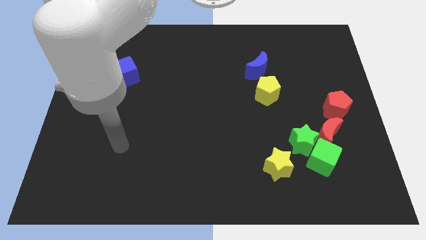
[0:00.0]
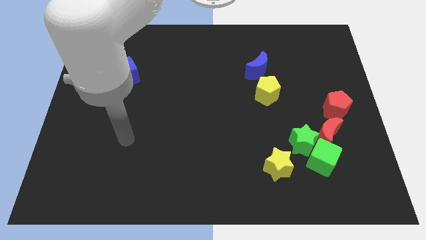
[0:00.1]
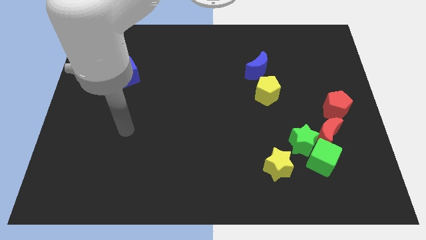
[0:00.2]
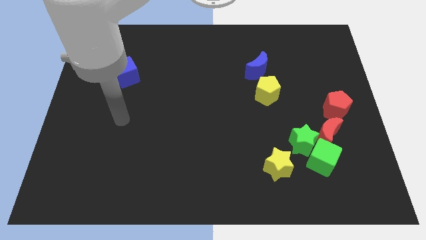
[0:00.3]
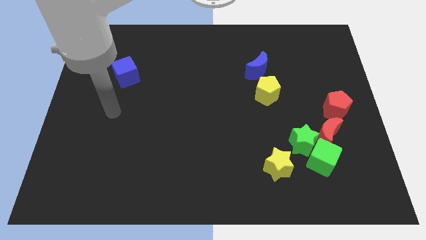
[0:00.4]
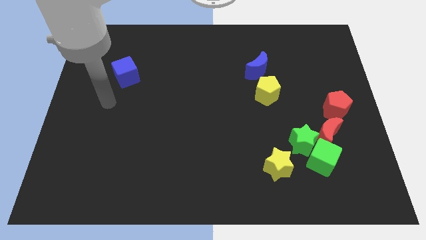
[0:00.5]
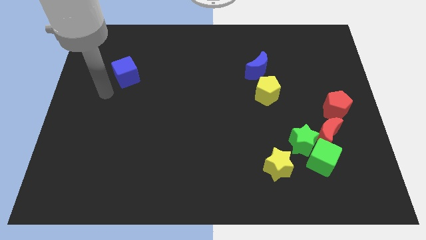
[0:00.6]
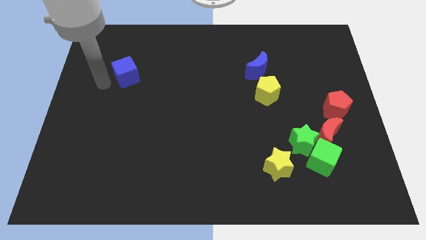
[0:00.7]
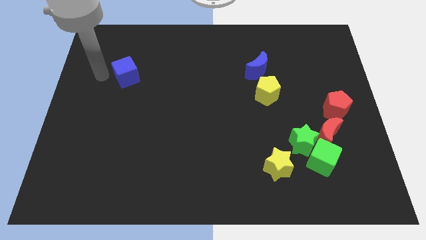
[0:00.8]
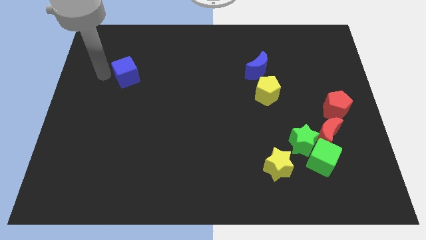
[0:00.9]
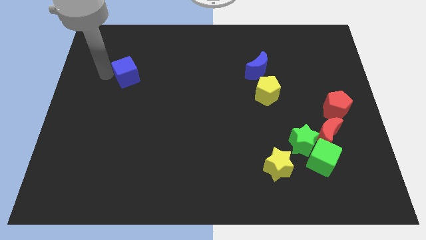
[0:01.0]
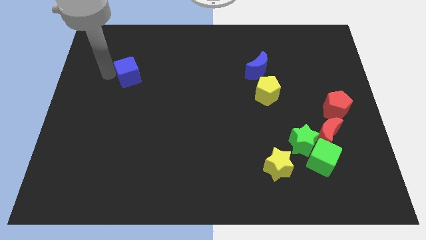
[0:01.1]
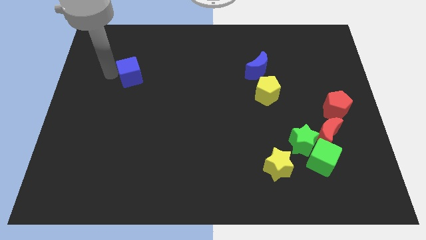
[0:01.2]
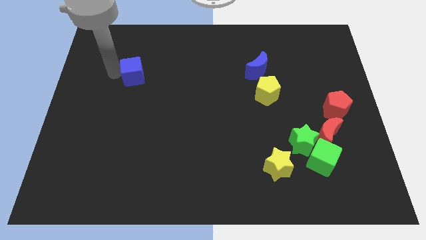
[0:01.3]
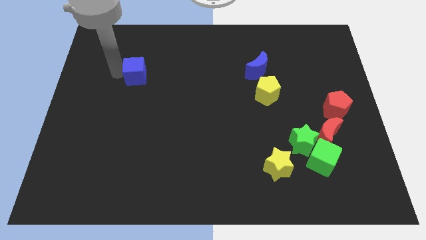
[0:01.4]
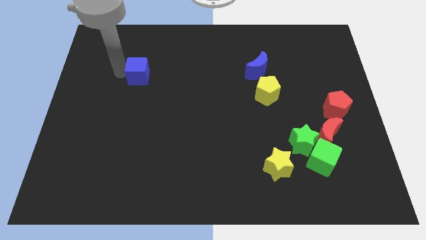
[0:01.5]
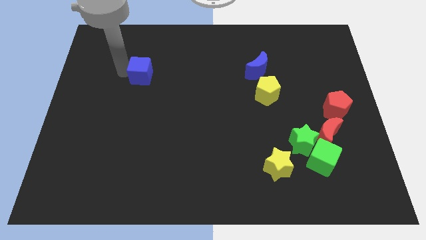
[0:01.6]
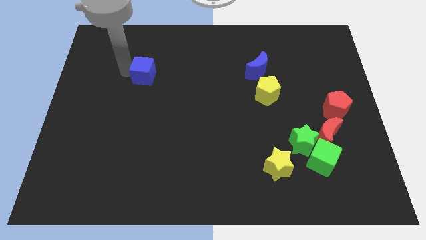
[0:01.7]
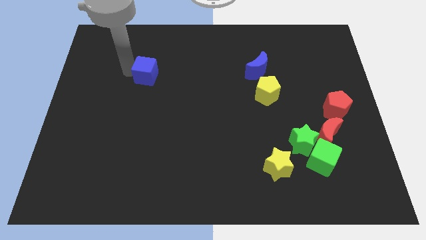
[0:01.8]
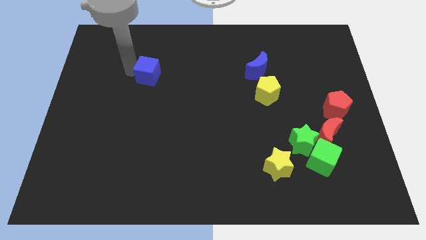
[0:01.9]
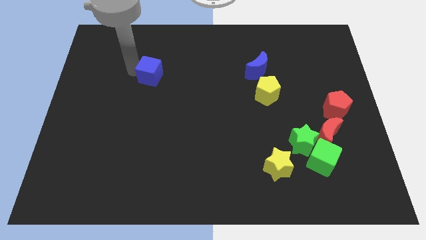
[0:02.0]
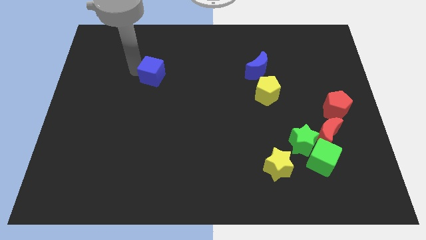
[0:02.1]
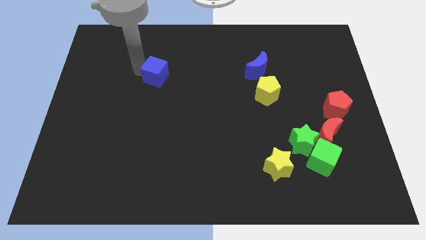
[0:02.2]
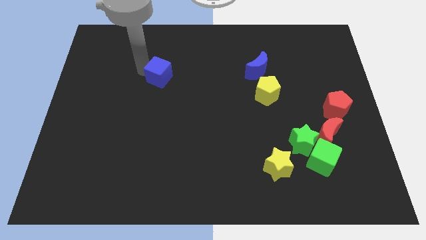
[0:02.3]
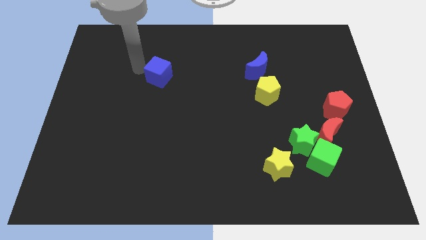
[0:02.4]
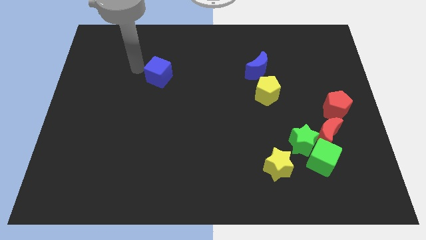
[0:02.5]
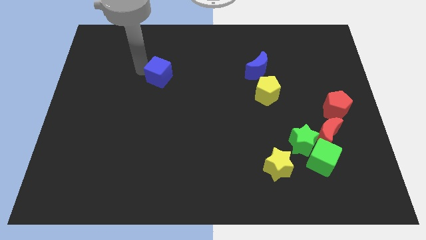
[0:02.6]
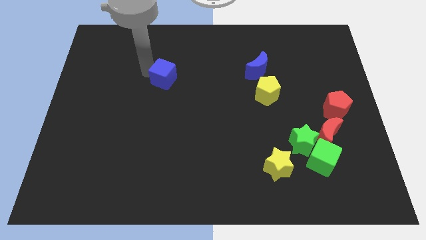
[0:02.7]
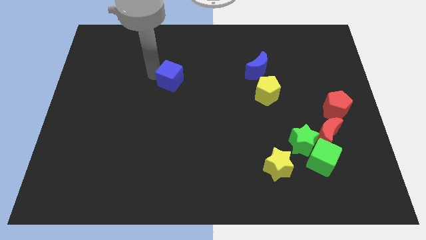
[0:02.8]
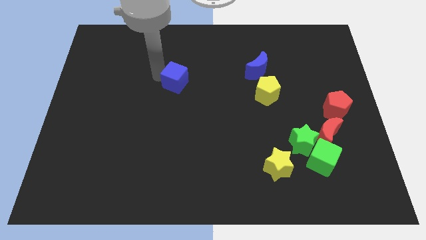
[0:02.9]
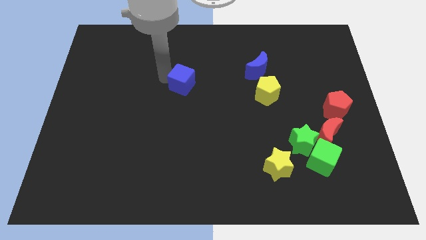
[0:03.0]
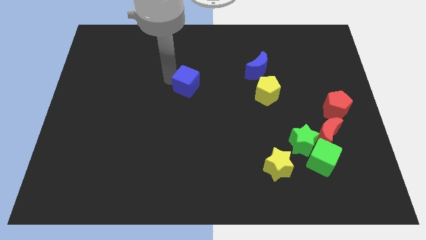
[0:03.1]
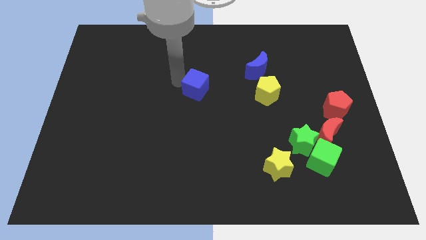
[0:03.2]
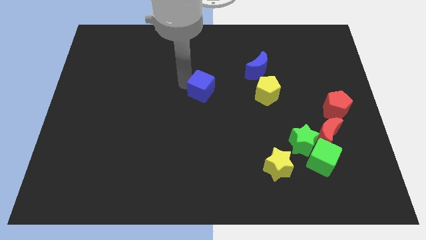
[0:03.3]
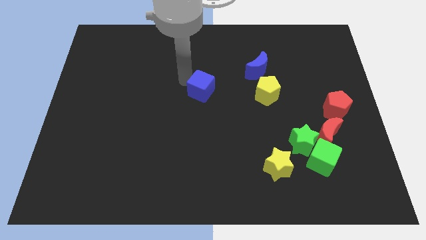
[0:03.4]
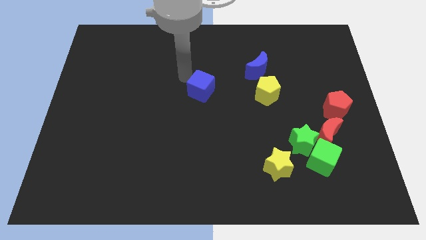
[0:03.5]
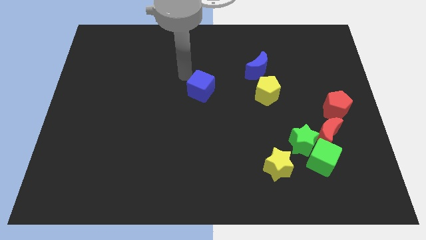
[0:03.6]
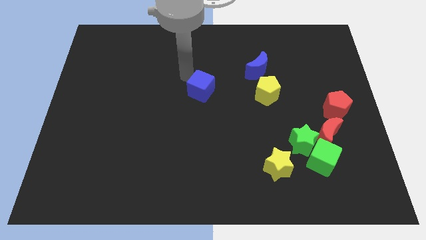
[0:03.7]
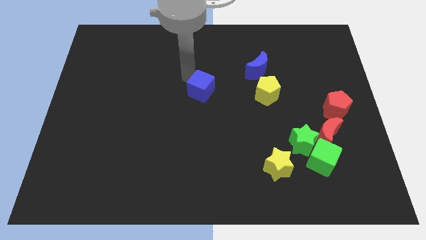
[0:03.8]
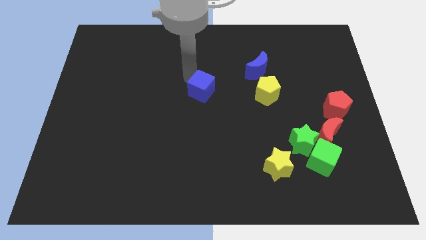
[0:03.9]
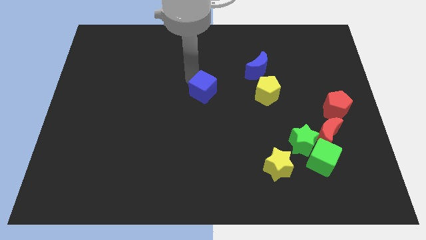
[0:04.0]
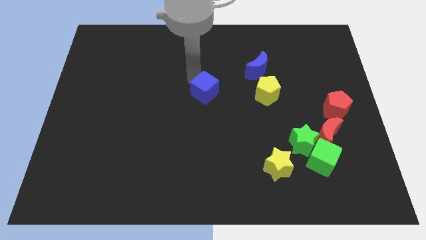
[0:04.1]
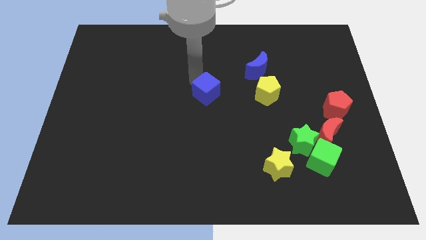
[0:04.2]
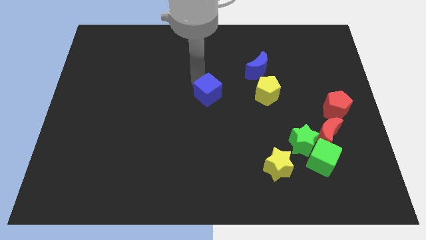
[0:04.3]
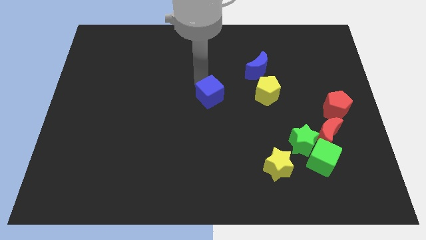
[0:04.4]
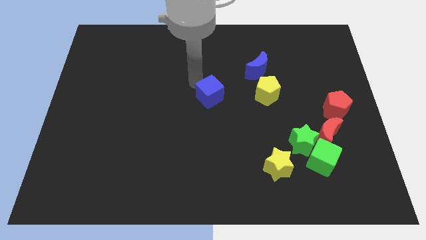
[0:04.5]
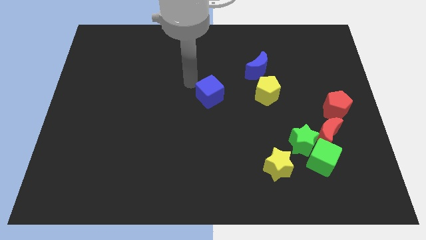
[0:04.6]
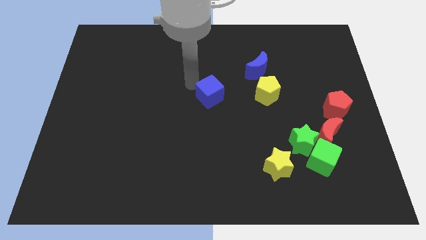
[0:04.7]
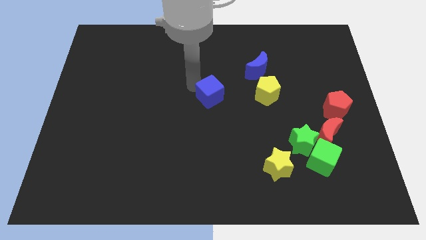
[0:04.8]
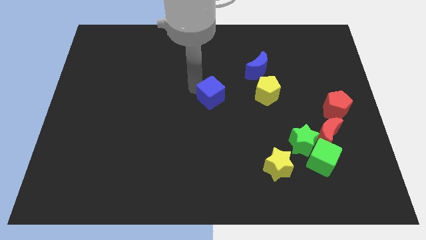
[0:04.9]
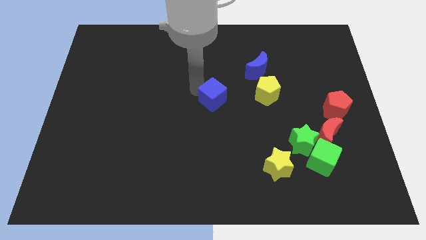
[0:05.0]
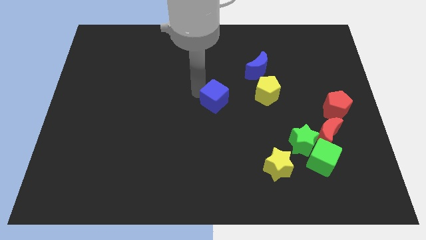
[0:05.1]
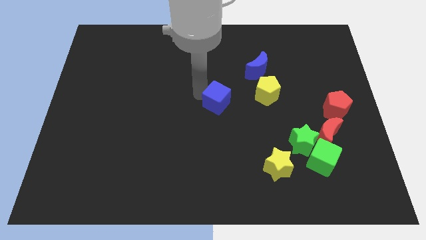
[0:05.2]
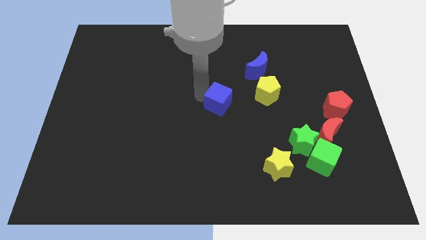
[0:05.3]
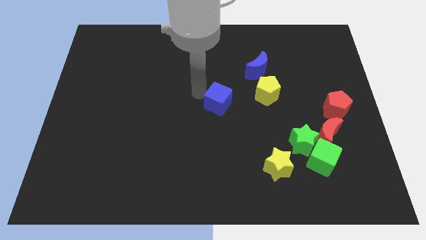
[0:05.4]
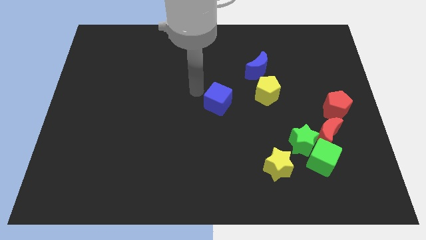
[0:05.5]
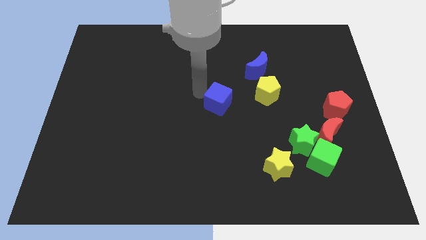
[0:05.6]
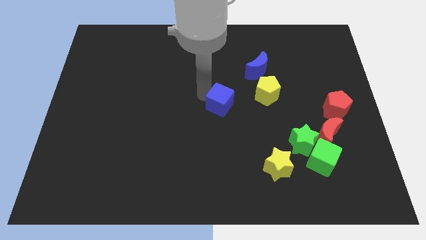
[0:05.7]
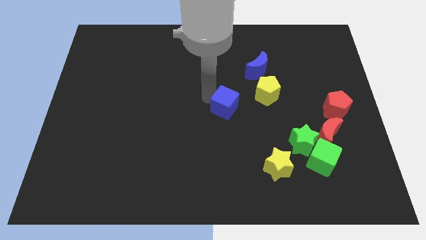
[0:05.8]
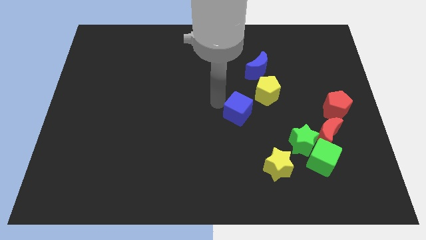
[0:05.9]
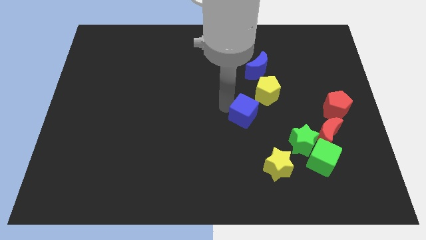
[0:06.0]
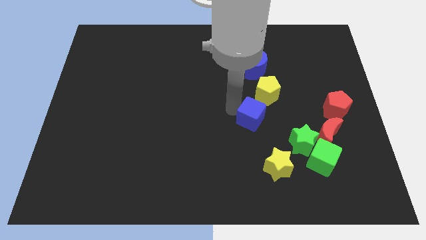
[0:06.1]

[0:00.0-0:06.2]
slide the blue cube to the bottom side of the yellow pentagon
